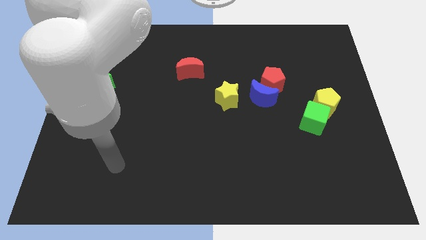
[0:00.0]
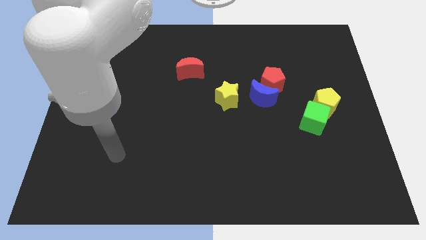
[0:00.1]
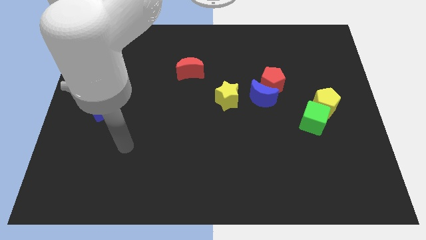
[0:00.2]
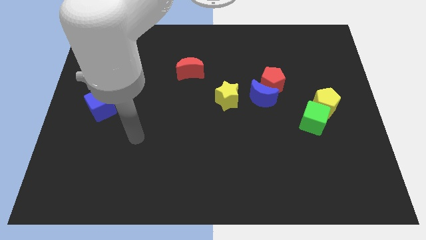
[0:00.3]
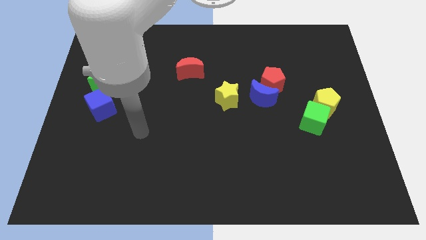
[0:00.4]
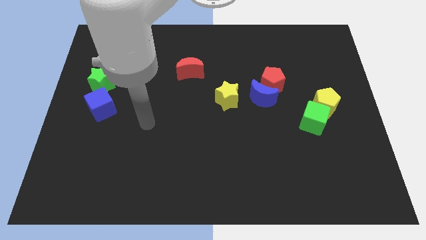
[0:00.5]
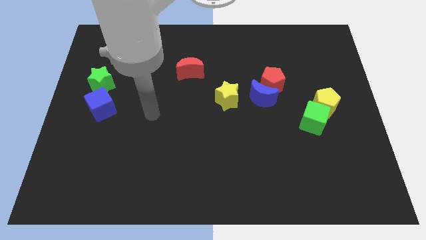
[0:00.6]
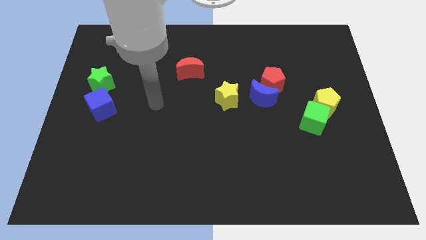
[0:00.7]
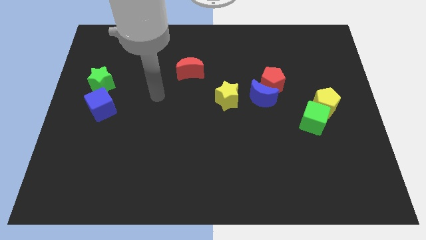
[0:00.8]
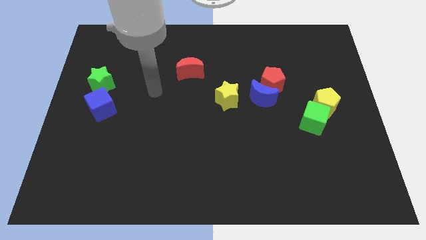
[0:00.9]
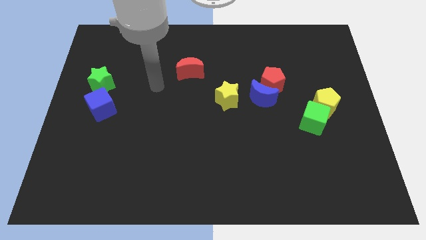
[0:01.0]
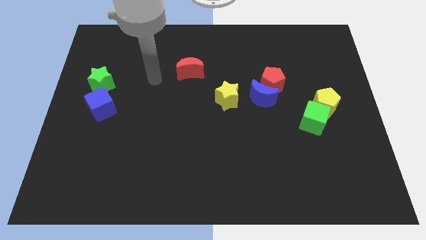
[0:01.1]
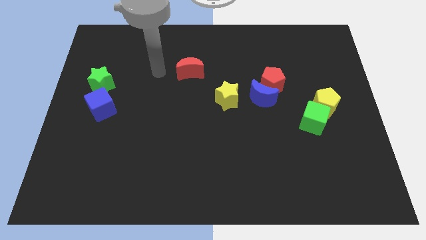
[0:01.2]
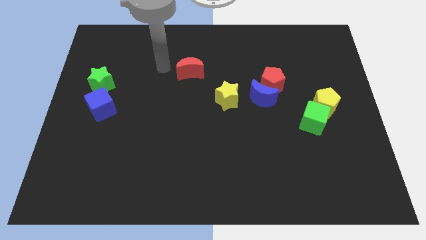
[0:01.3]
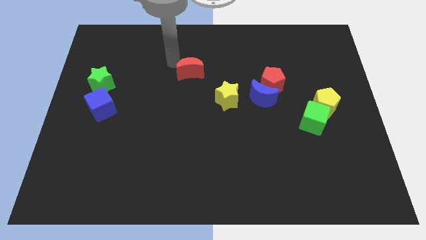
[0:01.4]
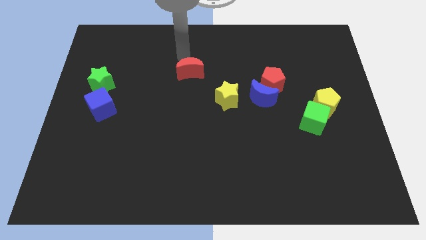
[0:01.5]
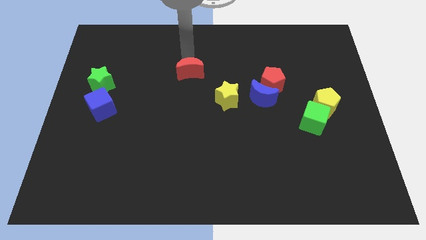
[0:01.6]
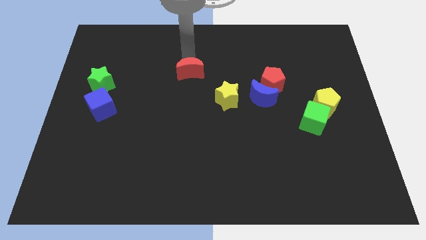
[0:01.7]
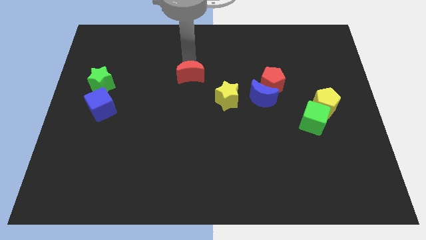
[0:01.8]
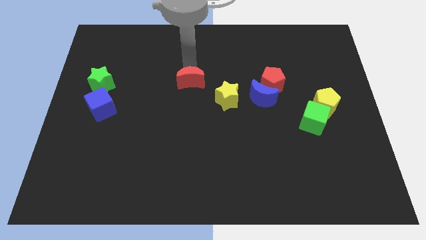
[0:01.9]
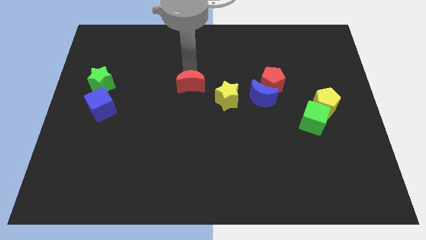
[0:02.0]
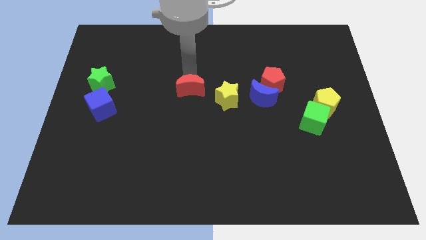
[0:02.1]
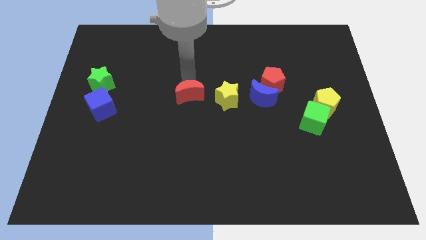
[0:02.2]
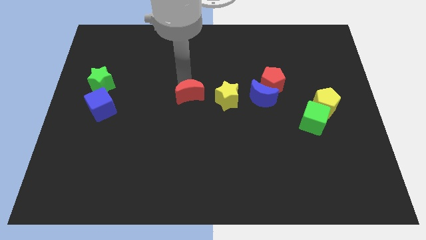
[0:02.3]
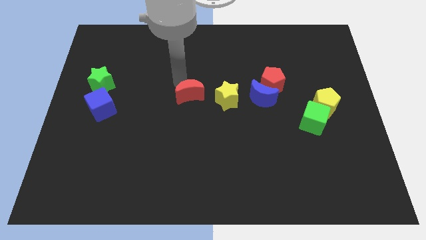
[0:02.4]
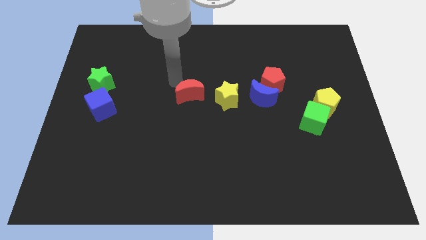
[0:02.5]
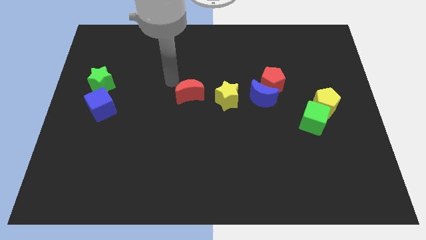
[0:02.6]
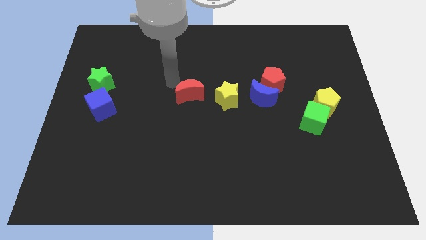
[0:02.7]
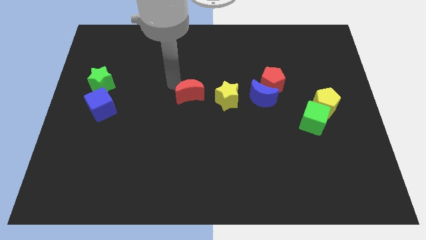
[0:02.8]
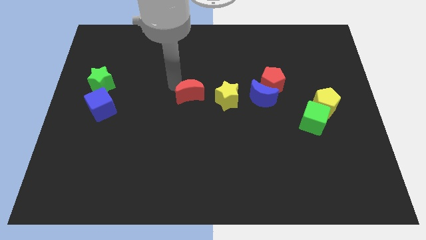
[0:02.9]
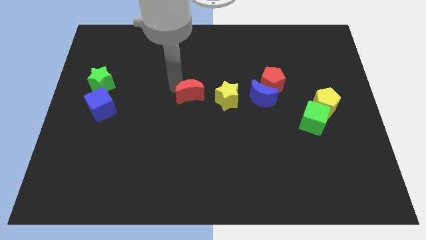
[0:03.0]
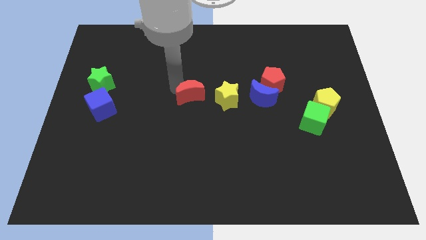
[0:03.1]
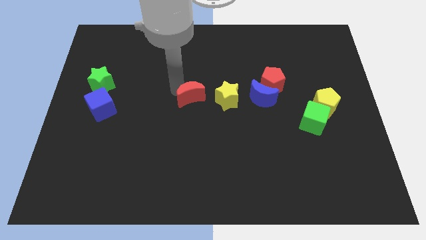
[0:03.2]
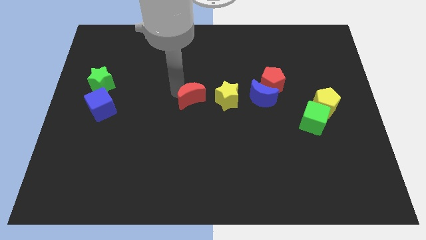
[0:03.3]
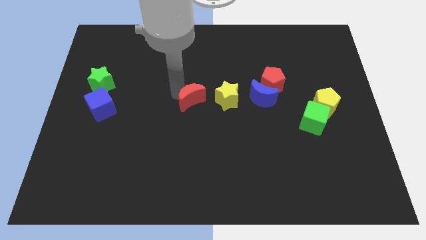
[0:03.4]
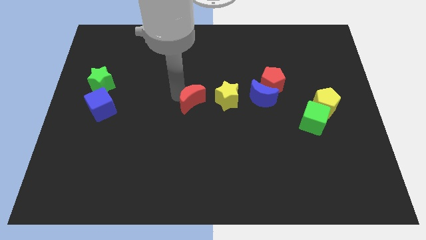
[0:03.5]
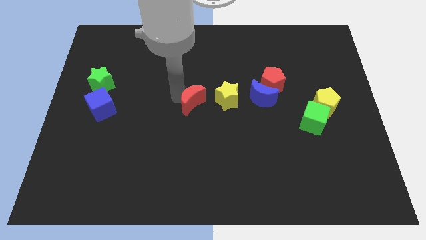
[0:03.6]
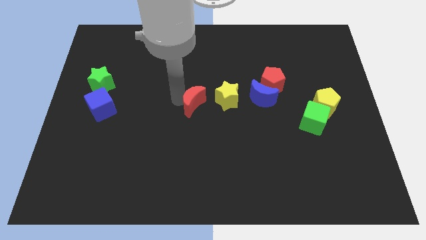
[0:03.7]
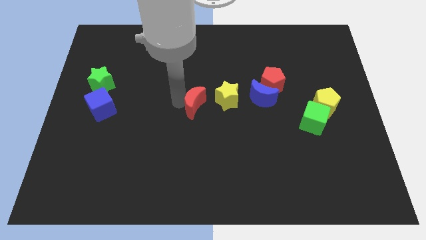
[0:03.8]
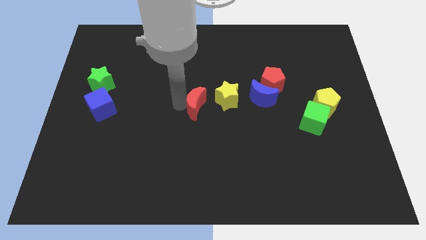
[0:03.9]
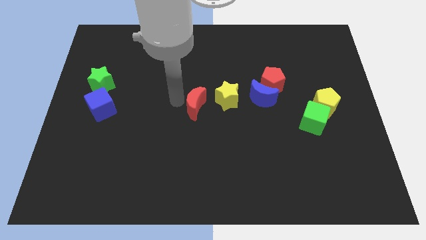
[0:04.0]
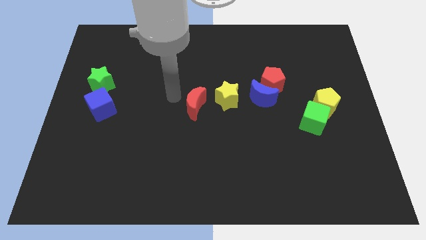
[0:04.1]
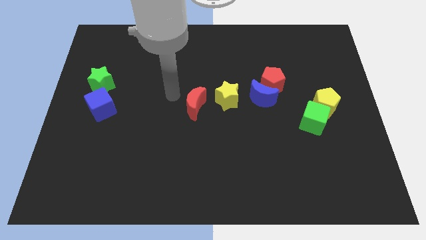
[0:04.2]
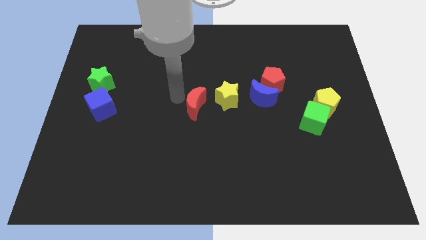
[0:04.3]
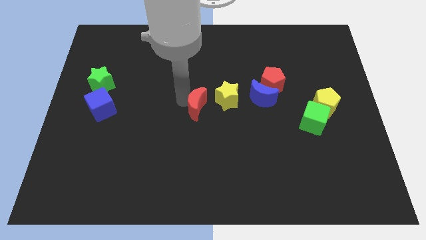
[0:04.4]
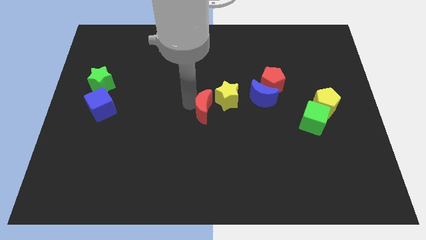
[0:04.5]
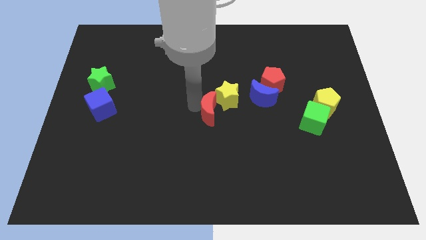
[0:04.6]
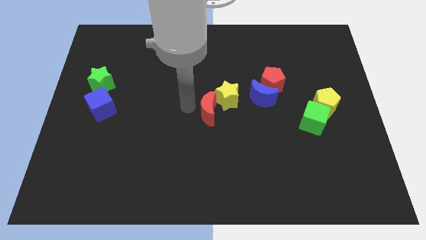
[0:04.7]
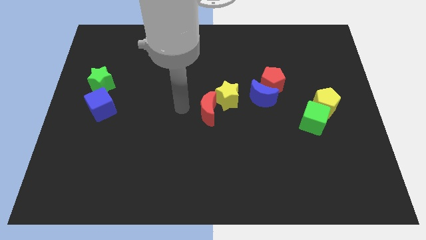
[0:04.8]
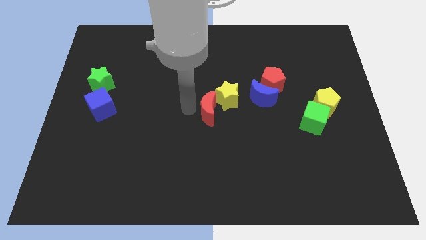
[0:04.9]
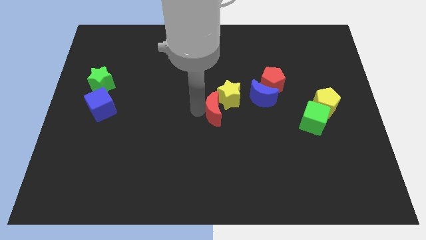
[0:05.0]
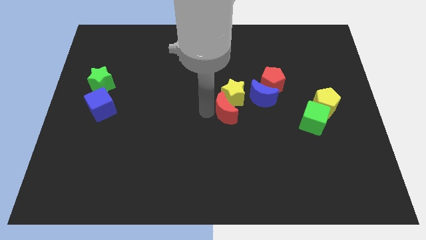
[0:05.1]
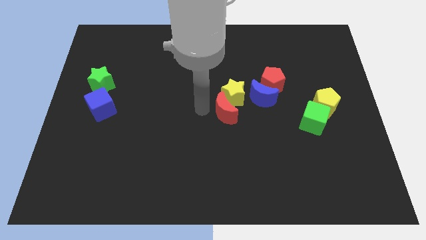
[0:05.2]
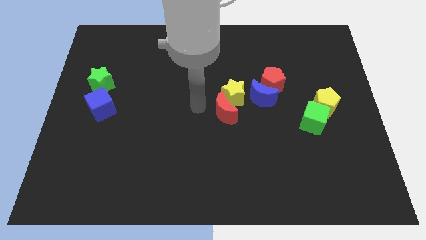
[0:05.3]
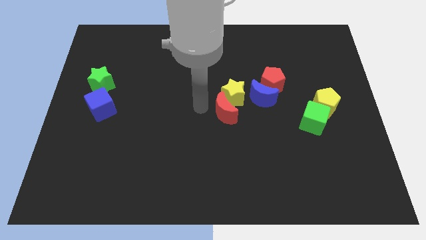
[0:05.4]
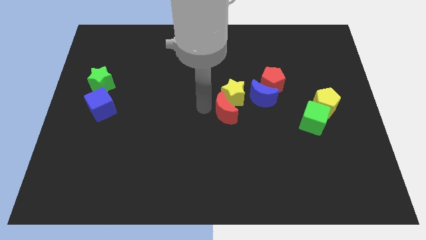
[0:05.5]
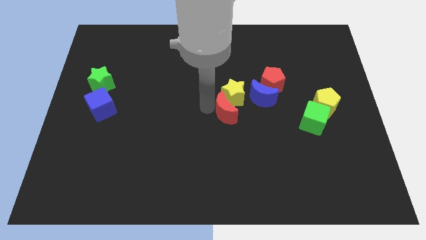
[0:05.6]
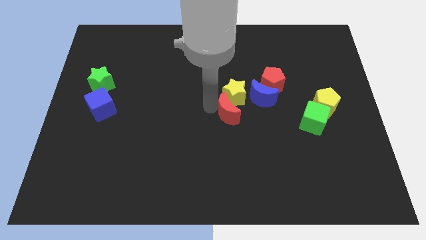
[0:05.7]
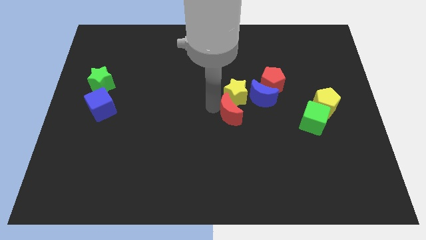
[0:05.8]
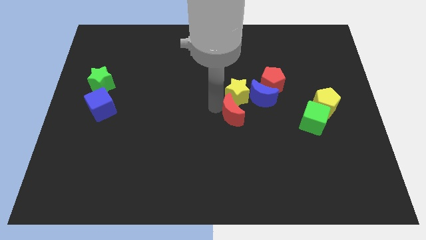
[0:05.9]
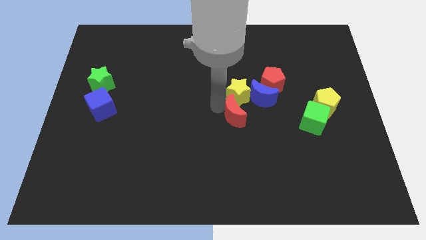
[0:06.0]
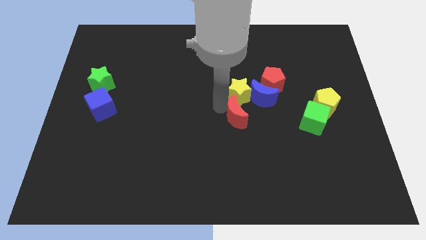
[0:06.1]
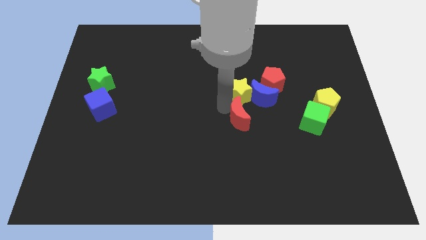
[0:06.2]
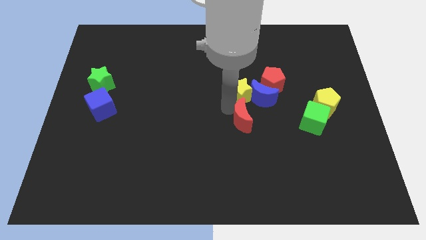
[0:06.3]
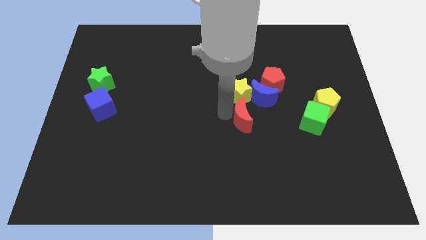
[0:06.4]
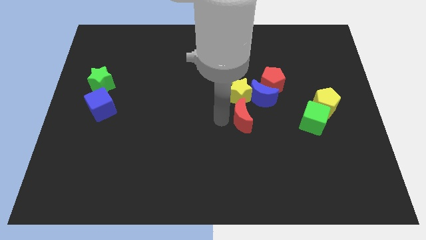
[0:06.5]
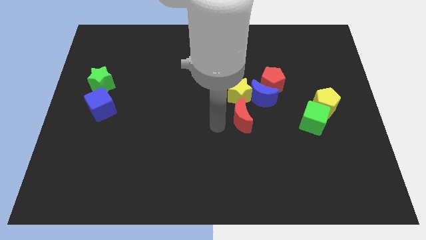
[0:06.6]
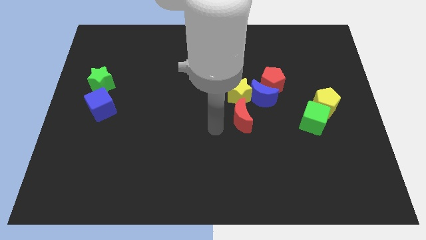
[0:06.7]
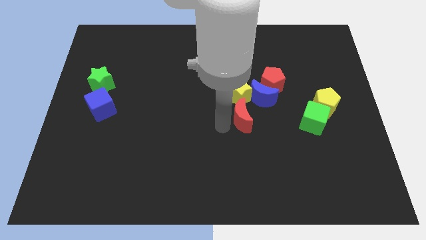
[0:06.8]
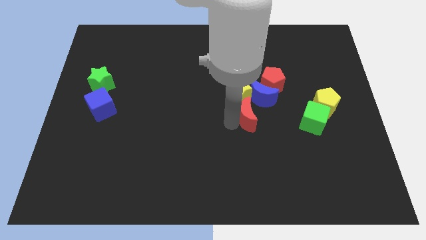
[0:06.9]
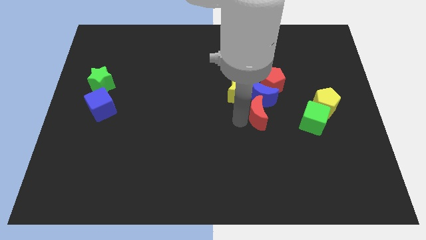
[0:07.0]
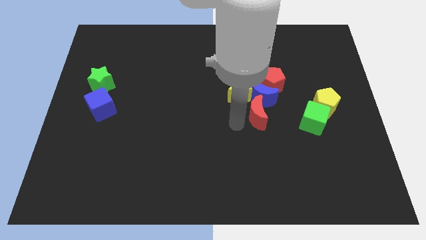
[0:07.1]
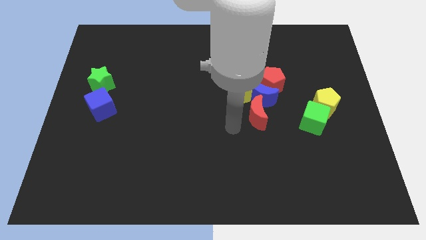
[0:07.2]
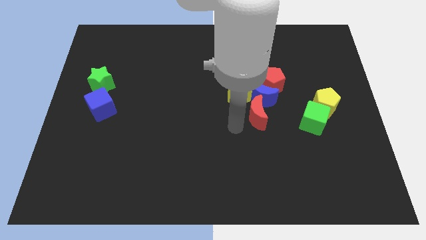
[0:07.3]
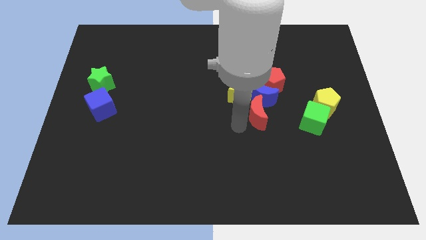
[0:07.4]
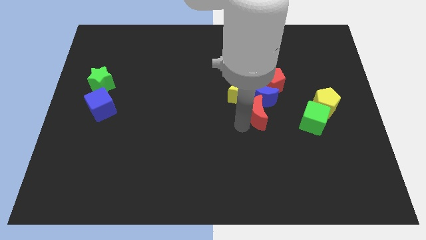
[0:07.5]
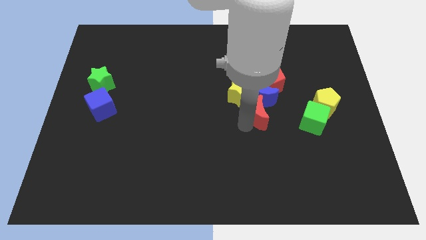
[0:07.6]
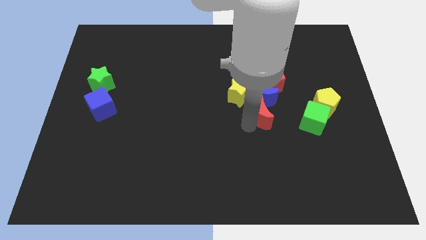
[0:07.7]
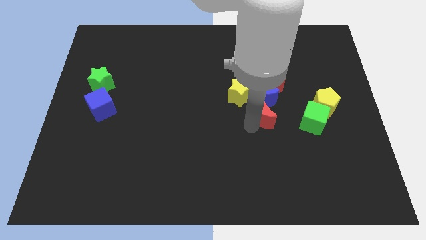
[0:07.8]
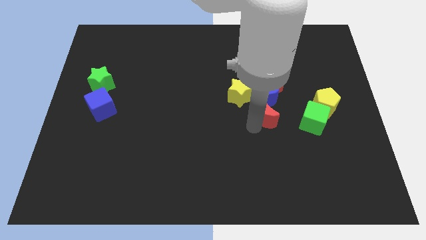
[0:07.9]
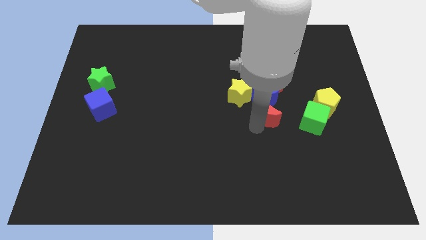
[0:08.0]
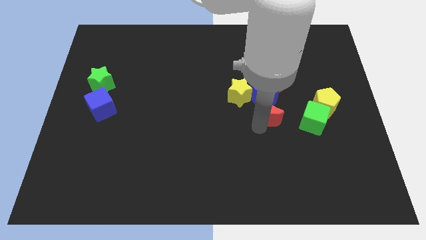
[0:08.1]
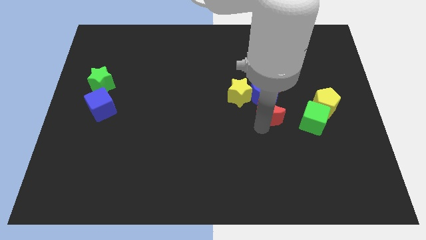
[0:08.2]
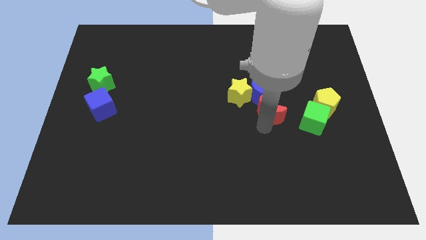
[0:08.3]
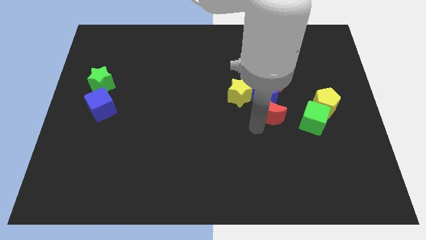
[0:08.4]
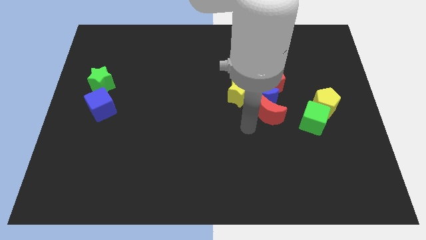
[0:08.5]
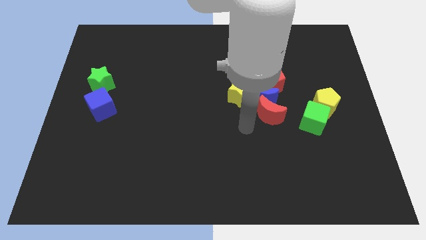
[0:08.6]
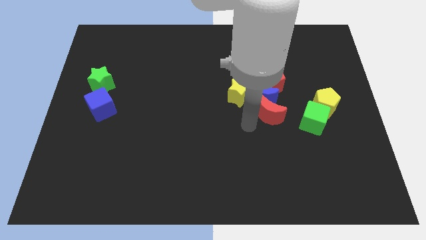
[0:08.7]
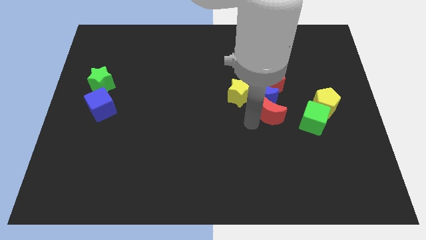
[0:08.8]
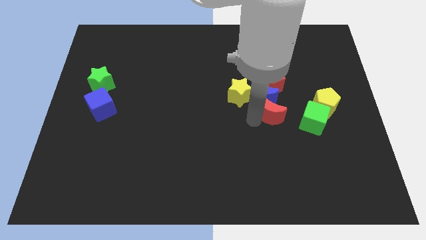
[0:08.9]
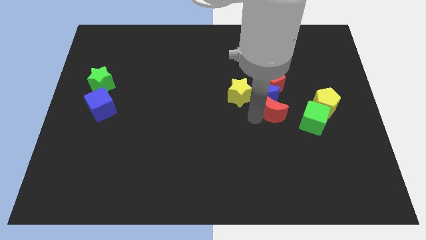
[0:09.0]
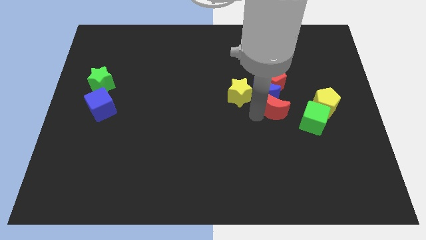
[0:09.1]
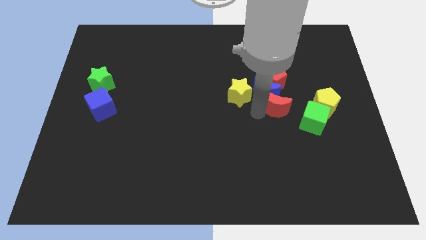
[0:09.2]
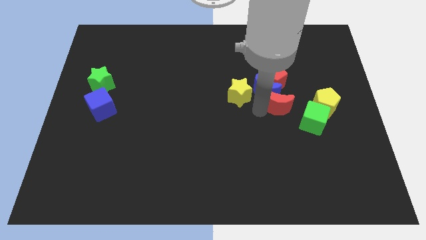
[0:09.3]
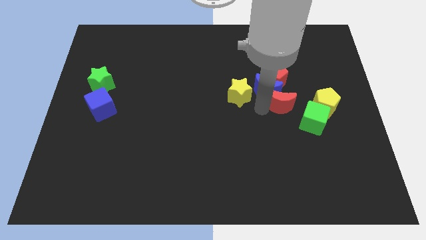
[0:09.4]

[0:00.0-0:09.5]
put the red moon diagonally down and to the right of the red pentagon
